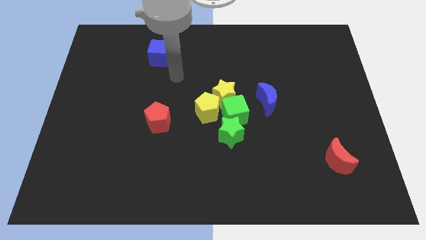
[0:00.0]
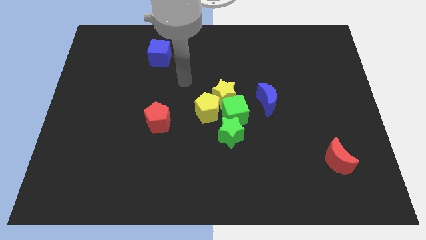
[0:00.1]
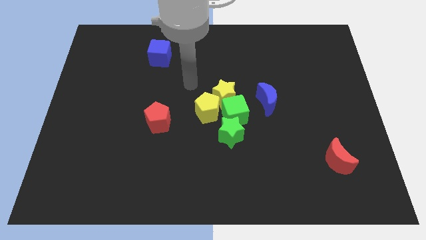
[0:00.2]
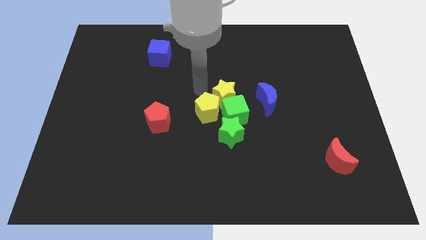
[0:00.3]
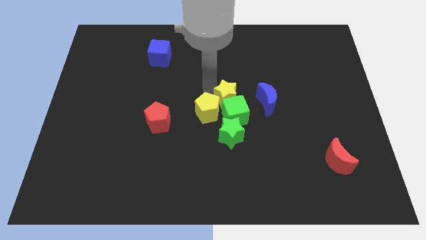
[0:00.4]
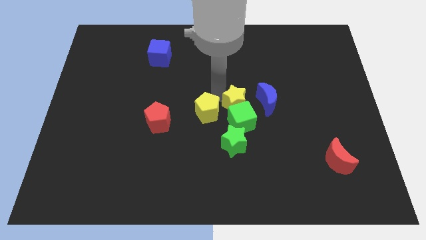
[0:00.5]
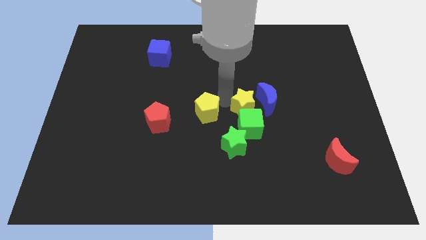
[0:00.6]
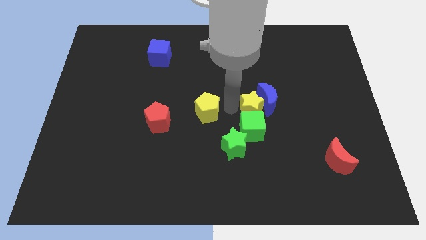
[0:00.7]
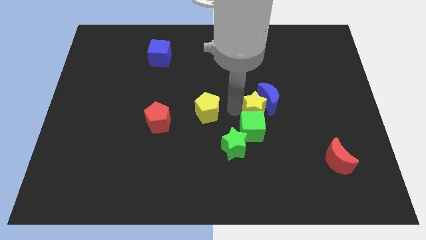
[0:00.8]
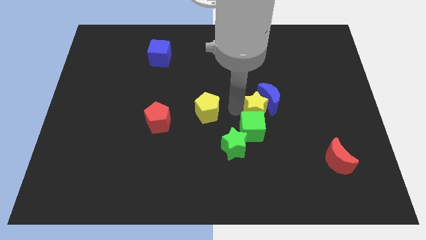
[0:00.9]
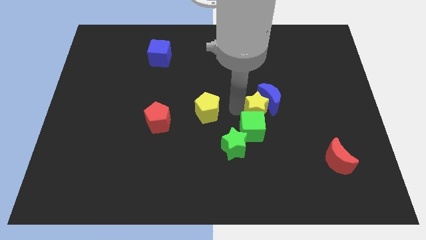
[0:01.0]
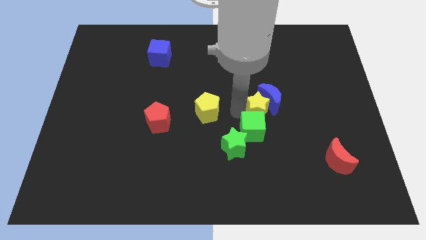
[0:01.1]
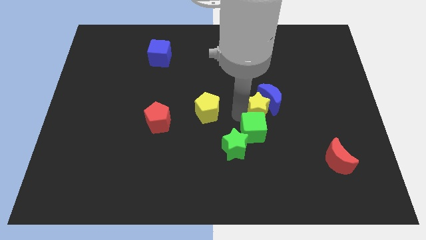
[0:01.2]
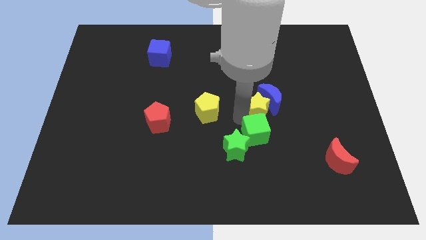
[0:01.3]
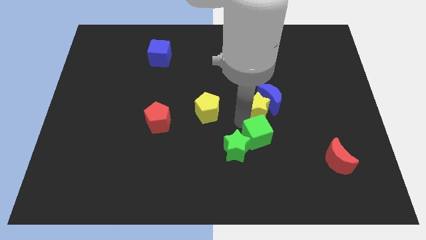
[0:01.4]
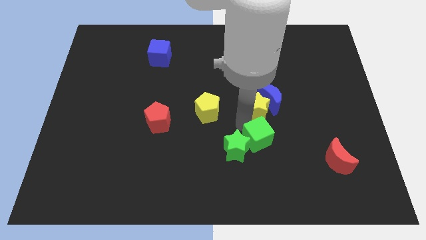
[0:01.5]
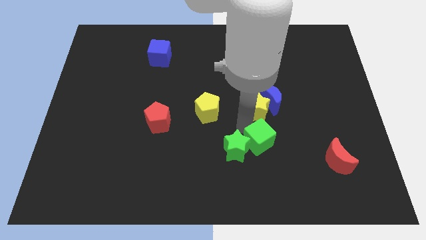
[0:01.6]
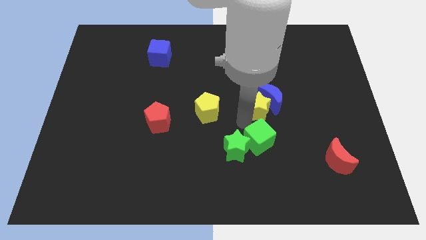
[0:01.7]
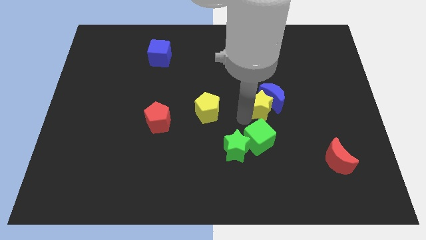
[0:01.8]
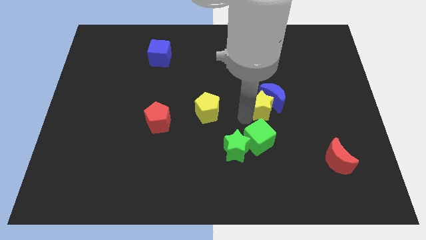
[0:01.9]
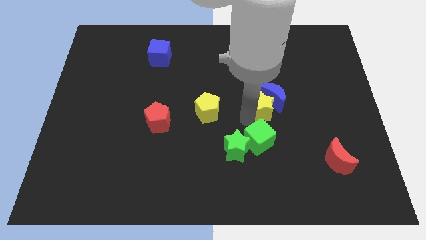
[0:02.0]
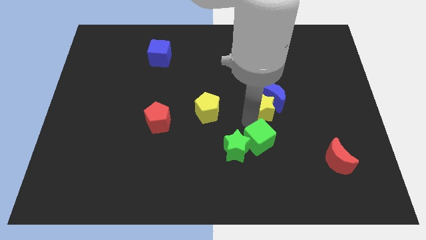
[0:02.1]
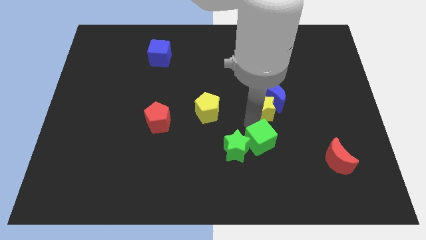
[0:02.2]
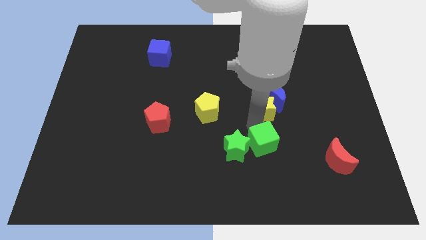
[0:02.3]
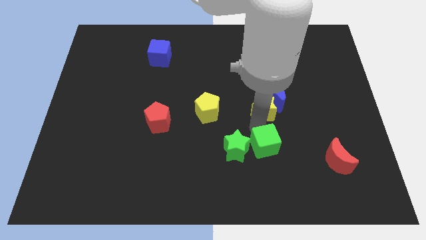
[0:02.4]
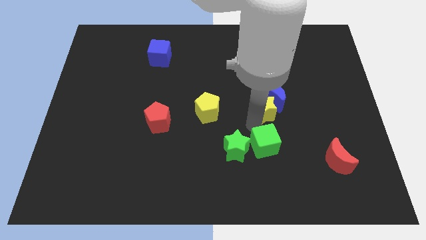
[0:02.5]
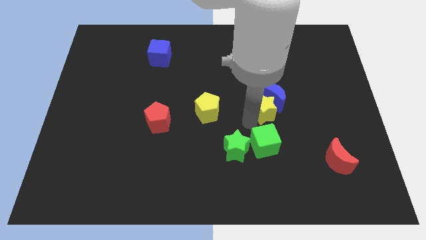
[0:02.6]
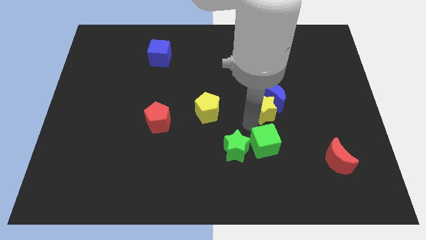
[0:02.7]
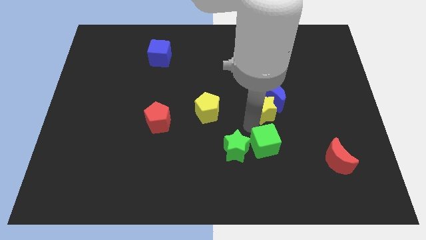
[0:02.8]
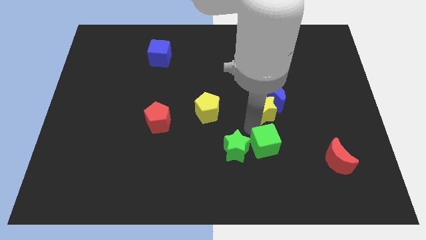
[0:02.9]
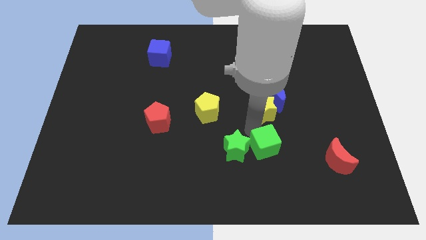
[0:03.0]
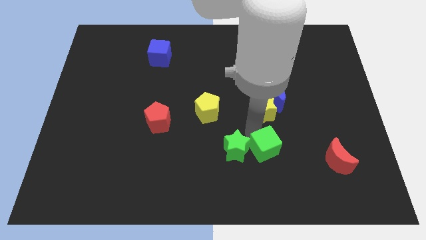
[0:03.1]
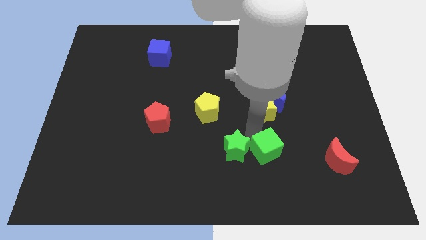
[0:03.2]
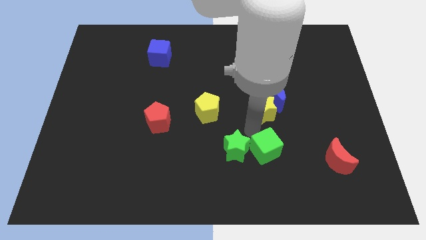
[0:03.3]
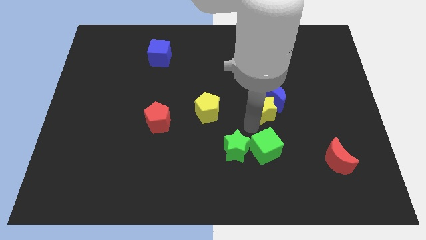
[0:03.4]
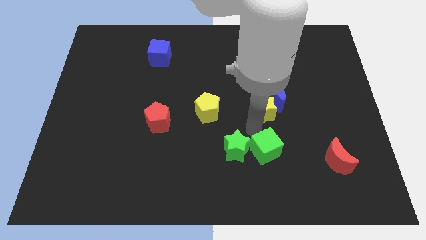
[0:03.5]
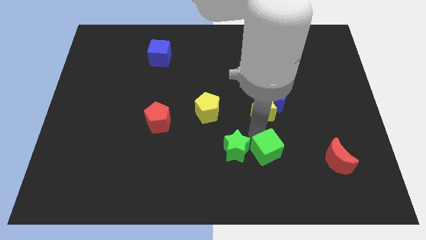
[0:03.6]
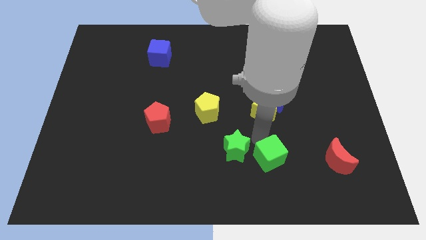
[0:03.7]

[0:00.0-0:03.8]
separate the green cube from the group of blocks

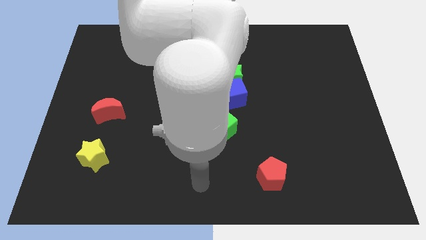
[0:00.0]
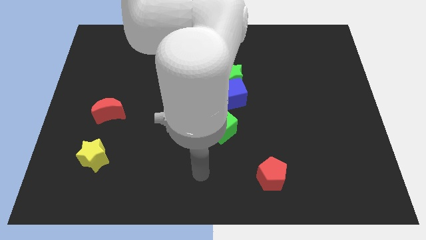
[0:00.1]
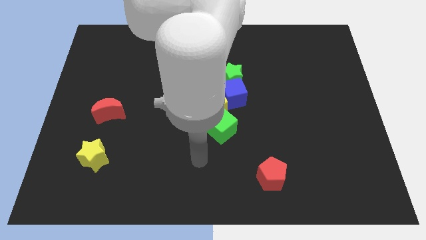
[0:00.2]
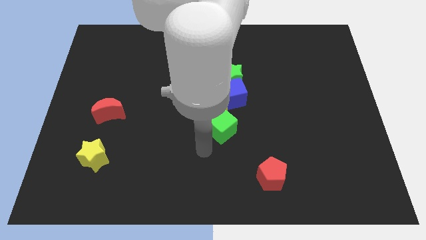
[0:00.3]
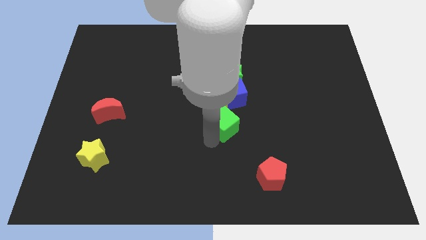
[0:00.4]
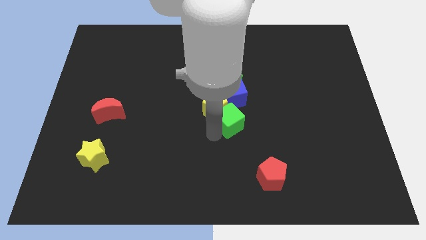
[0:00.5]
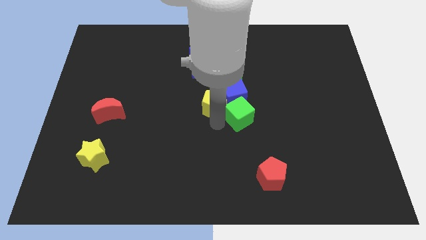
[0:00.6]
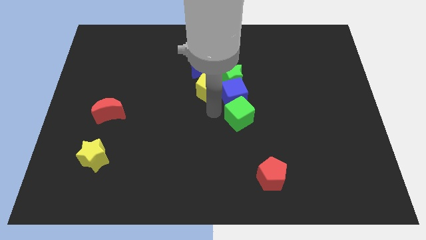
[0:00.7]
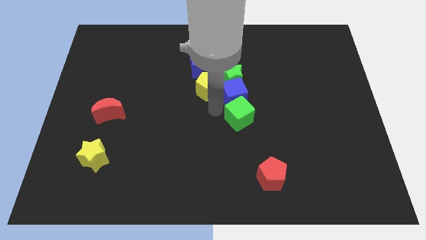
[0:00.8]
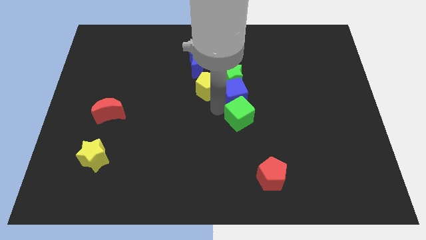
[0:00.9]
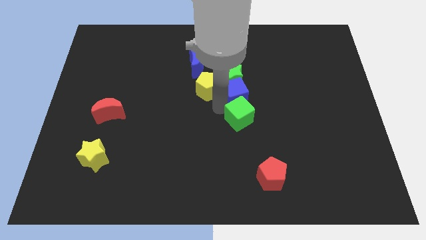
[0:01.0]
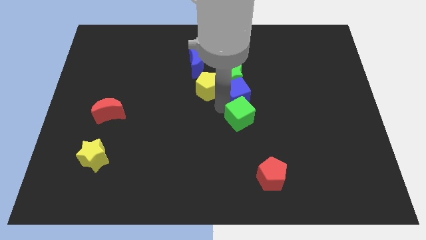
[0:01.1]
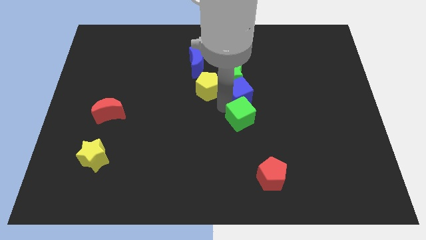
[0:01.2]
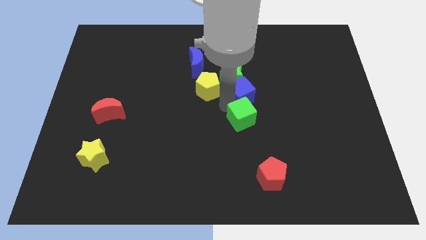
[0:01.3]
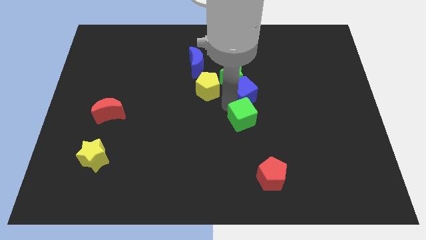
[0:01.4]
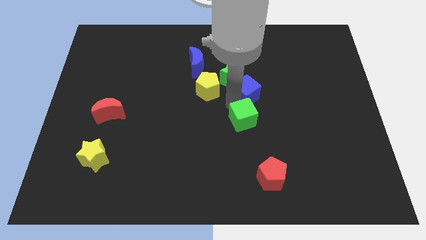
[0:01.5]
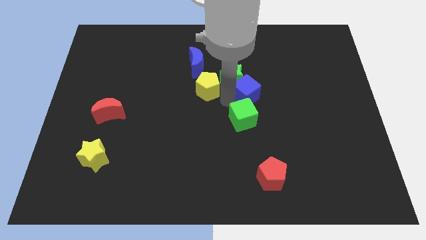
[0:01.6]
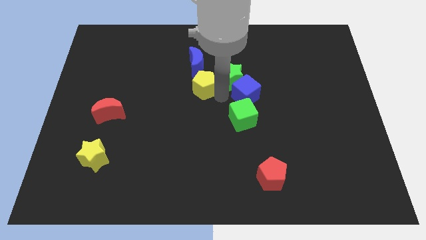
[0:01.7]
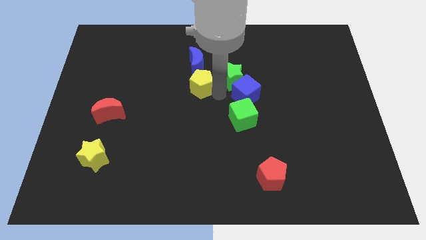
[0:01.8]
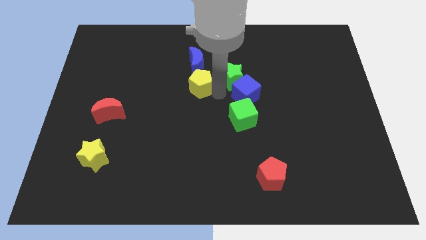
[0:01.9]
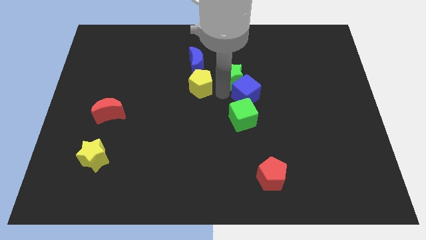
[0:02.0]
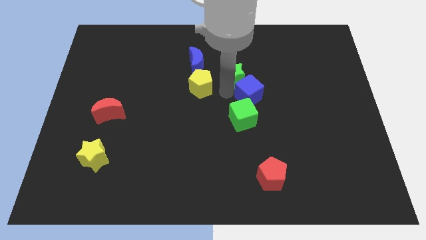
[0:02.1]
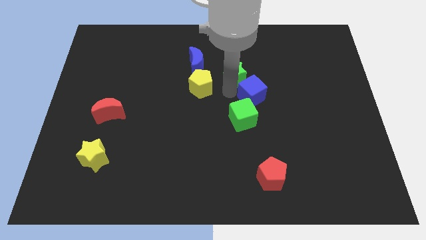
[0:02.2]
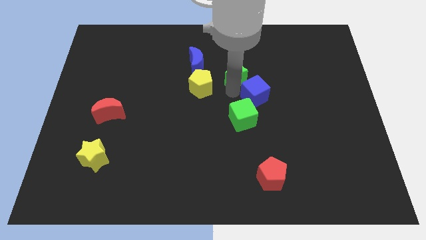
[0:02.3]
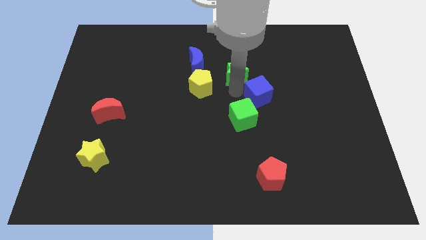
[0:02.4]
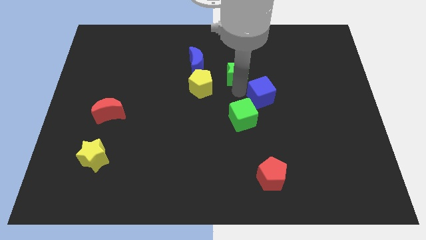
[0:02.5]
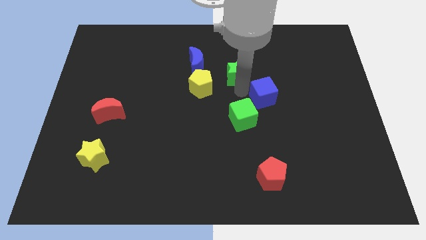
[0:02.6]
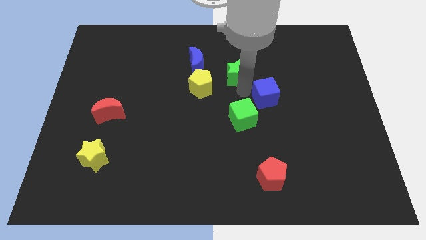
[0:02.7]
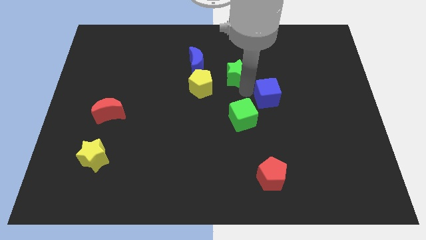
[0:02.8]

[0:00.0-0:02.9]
move the blue cube away from the clump

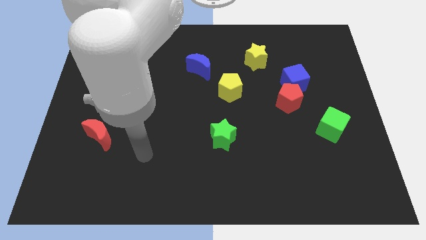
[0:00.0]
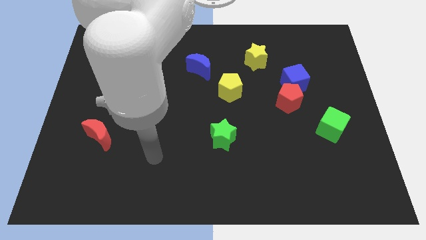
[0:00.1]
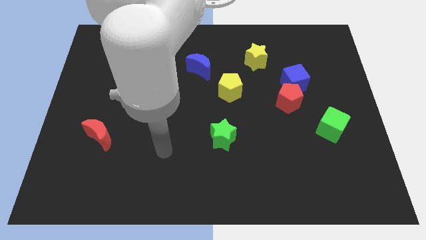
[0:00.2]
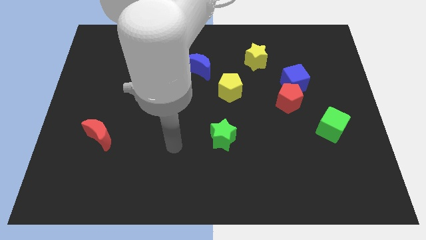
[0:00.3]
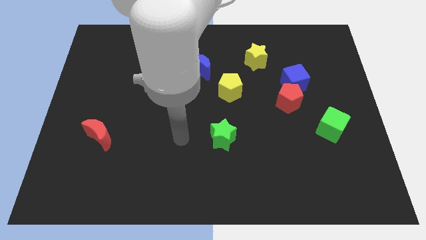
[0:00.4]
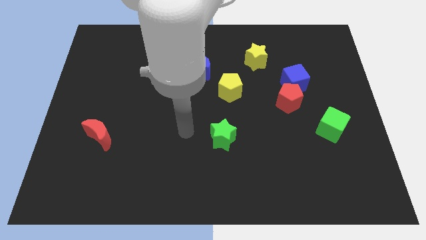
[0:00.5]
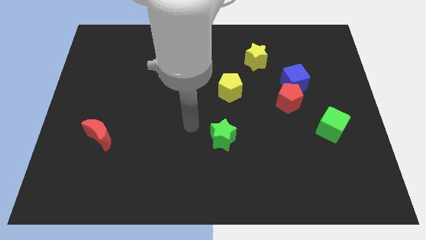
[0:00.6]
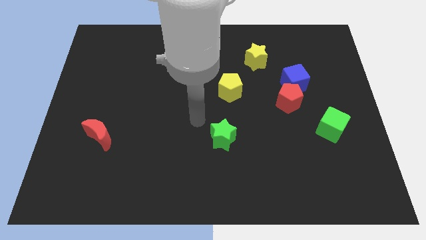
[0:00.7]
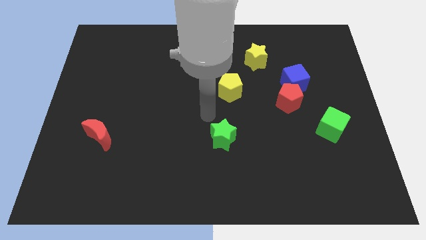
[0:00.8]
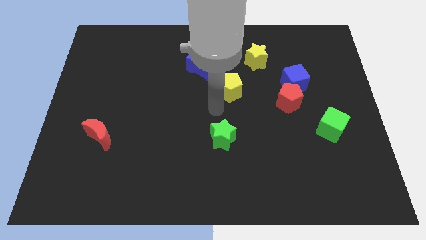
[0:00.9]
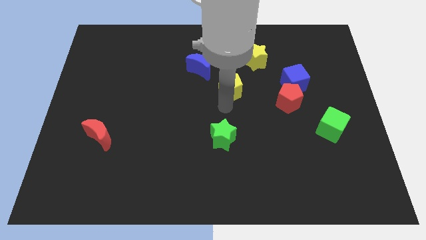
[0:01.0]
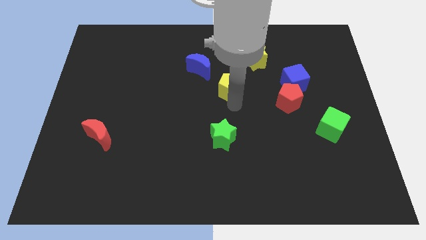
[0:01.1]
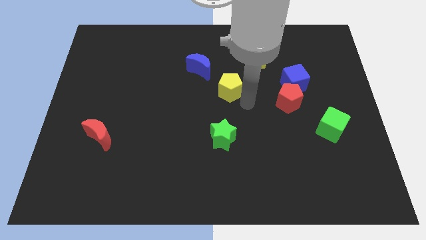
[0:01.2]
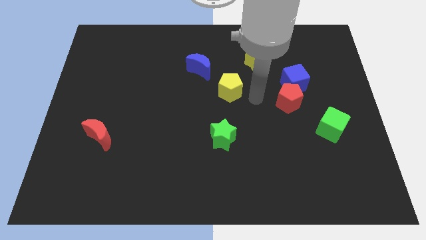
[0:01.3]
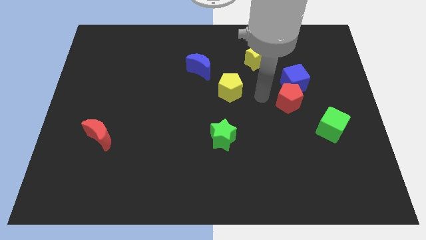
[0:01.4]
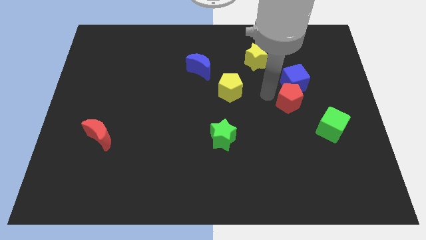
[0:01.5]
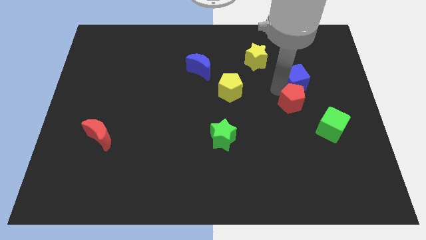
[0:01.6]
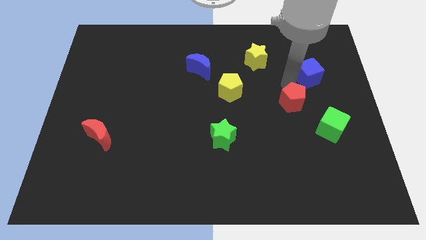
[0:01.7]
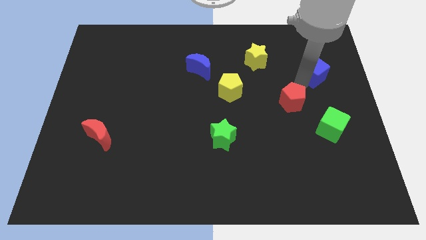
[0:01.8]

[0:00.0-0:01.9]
move the red pentagon away from the blue cube

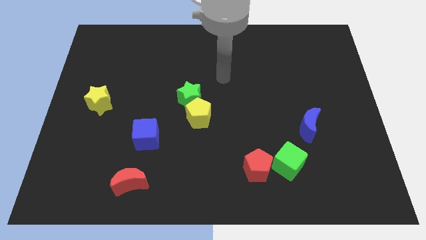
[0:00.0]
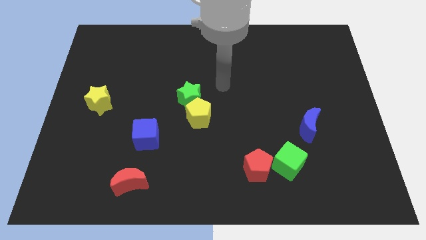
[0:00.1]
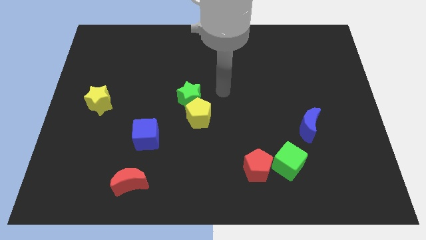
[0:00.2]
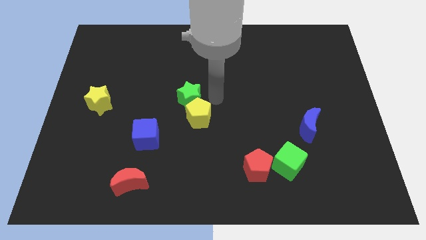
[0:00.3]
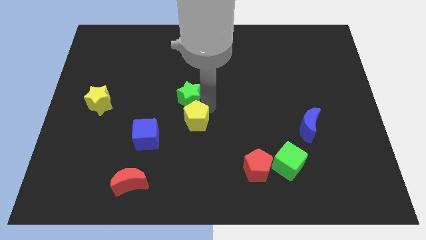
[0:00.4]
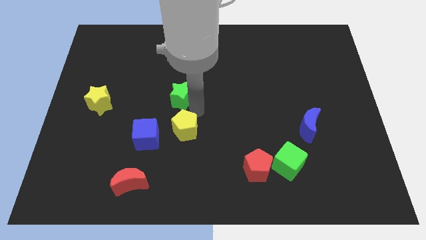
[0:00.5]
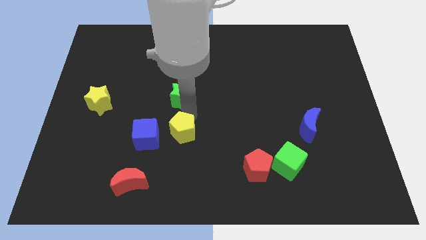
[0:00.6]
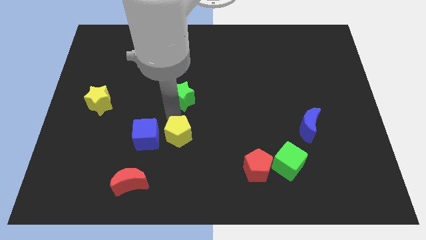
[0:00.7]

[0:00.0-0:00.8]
move the green star away from the yellow pentagon

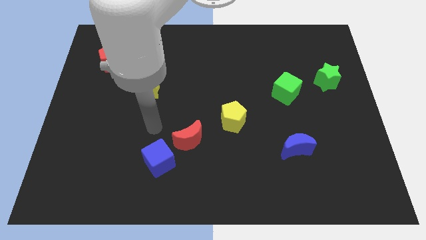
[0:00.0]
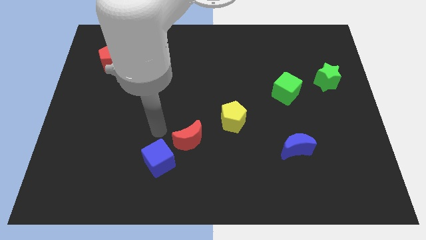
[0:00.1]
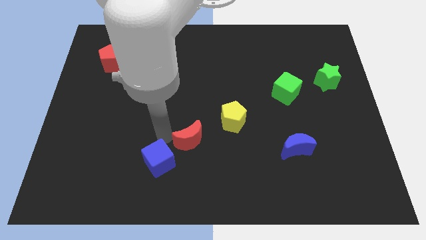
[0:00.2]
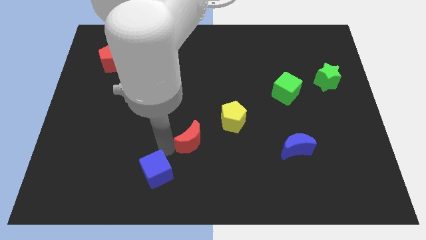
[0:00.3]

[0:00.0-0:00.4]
move the red moon away from the blue cube
